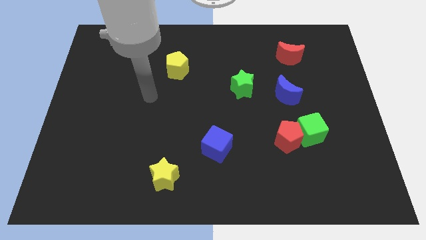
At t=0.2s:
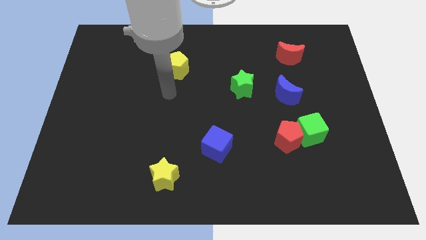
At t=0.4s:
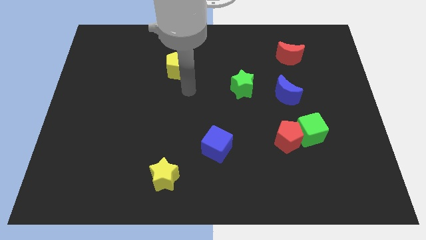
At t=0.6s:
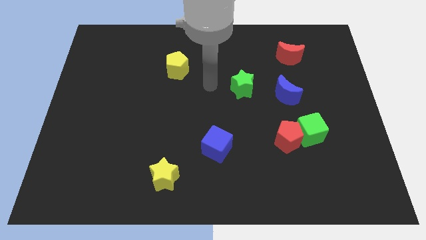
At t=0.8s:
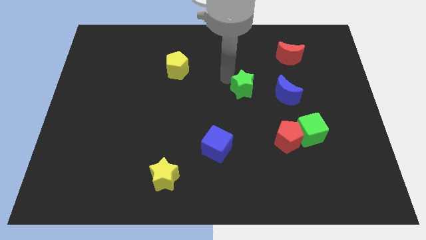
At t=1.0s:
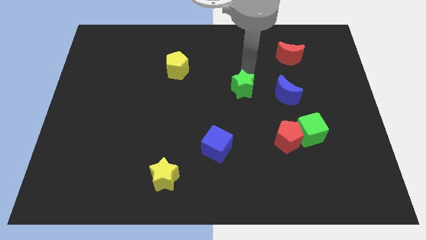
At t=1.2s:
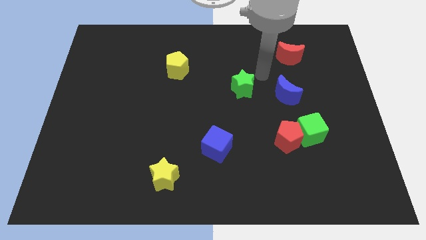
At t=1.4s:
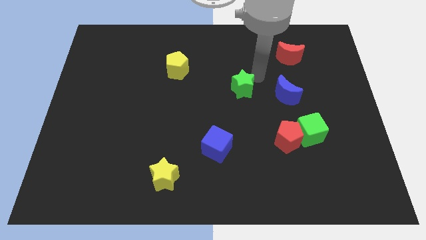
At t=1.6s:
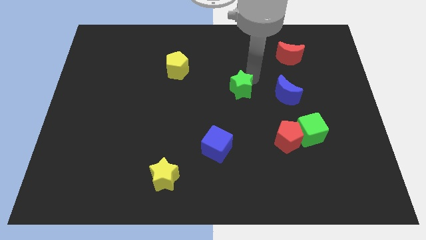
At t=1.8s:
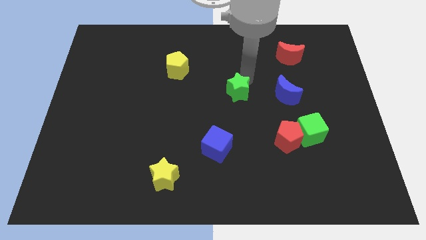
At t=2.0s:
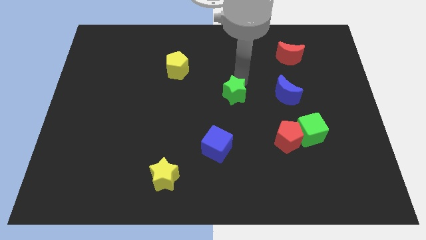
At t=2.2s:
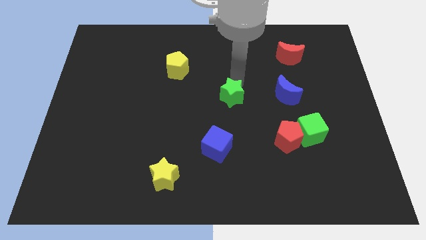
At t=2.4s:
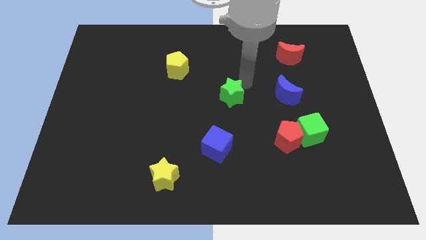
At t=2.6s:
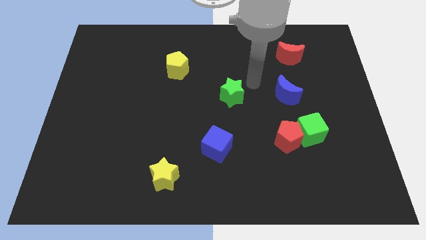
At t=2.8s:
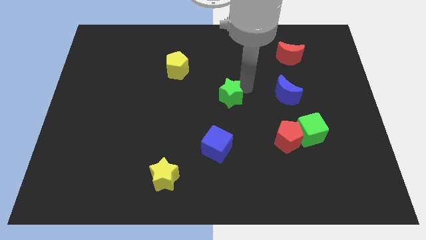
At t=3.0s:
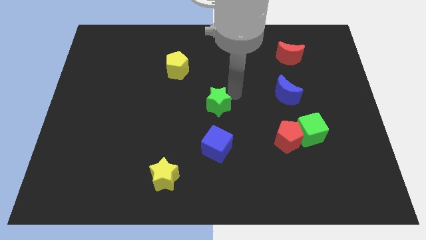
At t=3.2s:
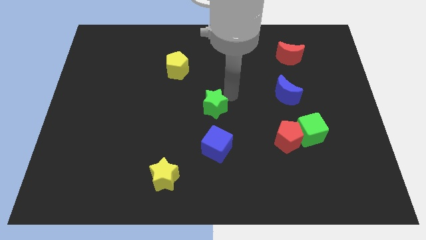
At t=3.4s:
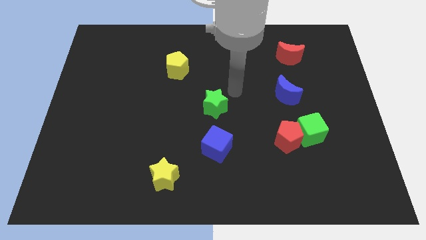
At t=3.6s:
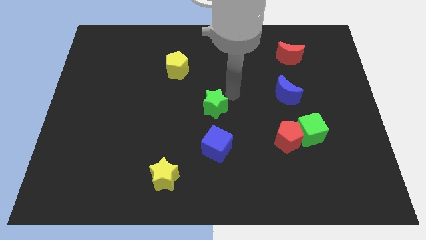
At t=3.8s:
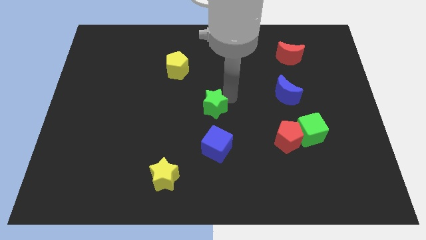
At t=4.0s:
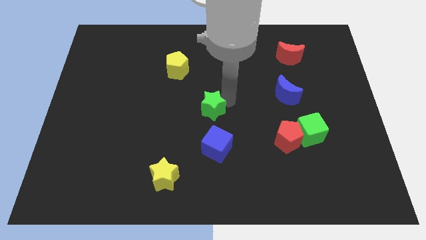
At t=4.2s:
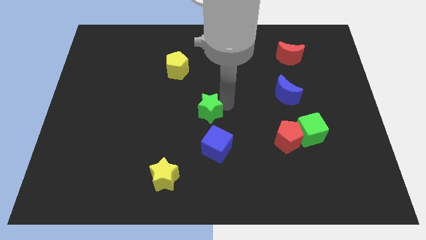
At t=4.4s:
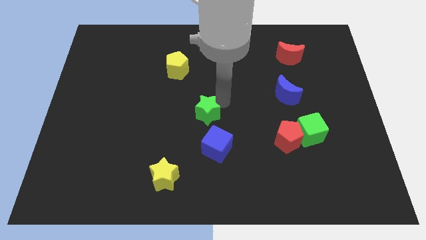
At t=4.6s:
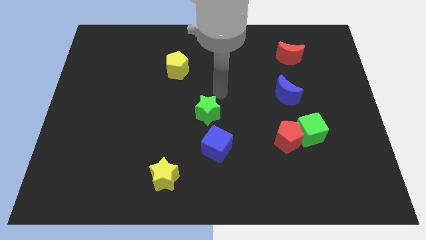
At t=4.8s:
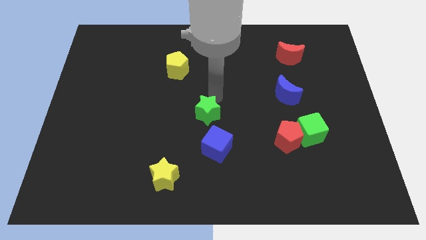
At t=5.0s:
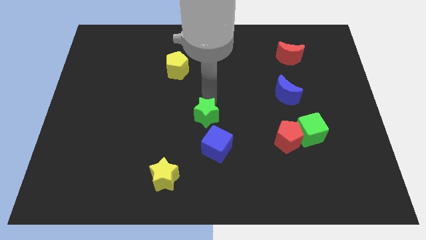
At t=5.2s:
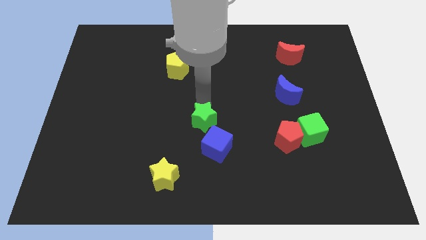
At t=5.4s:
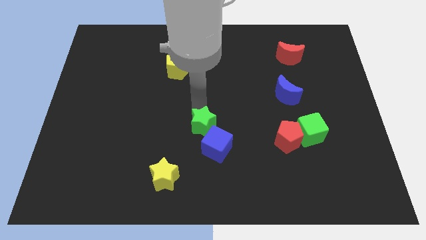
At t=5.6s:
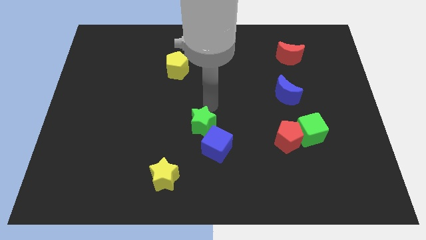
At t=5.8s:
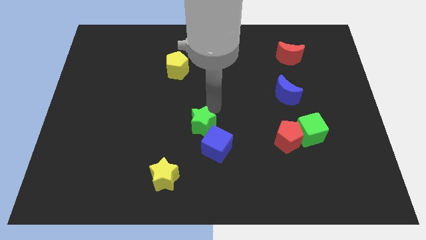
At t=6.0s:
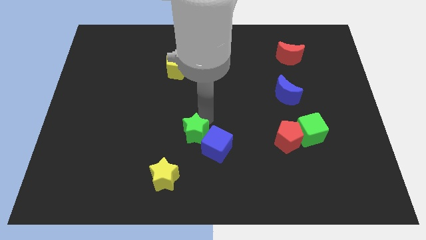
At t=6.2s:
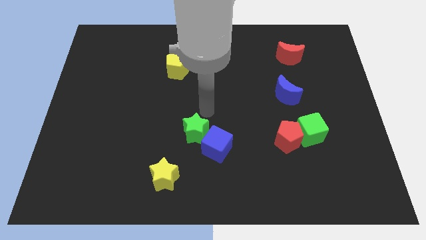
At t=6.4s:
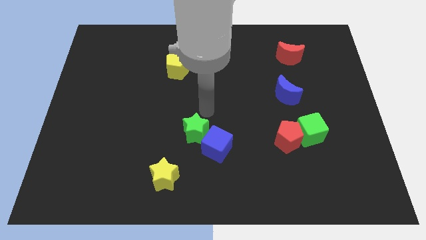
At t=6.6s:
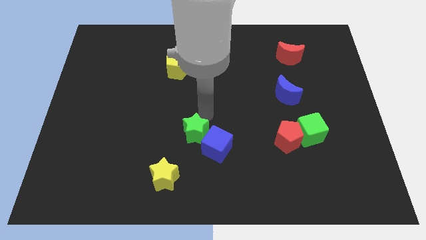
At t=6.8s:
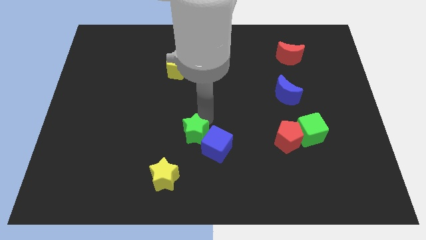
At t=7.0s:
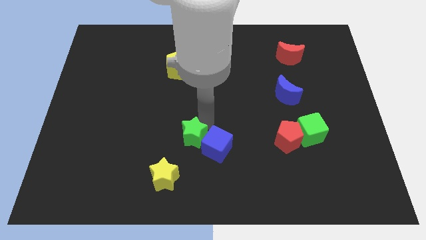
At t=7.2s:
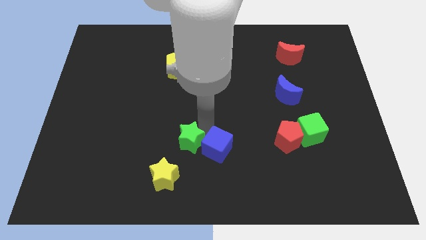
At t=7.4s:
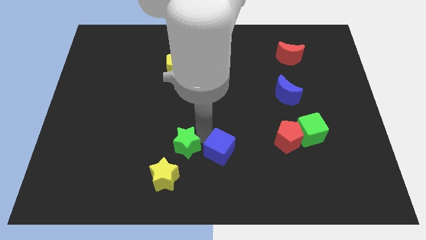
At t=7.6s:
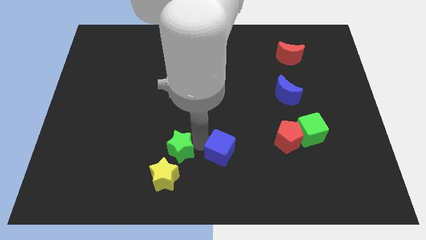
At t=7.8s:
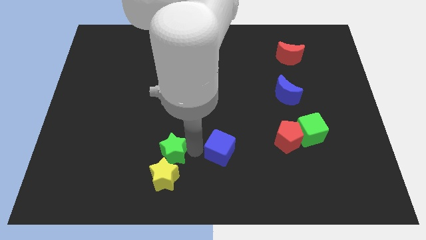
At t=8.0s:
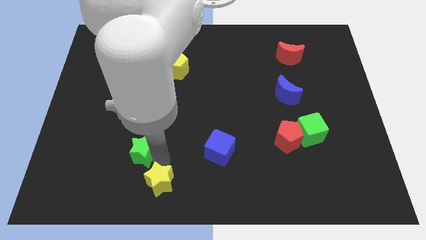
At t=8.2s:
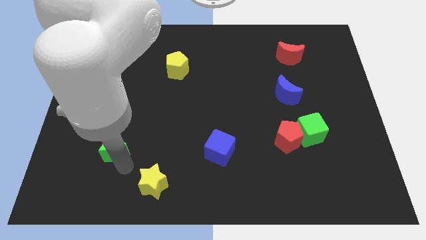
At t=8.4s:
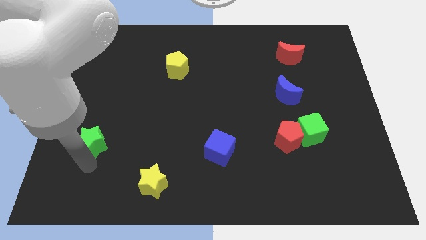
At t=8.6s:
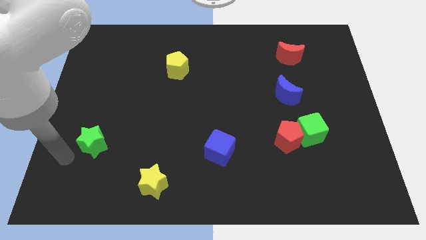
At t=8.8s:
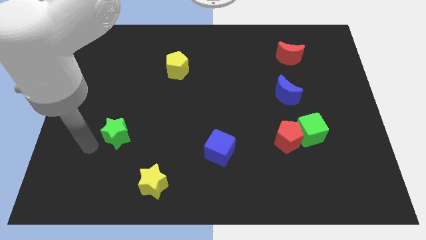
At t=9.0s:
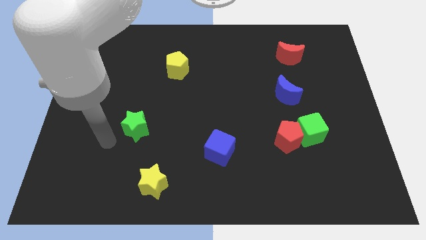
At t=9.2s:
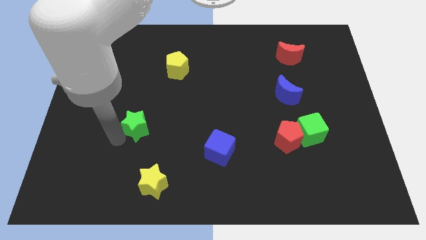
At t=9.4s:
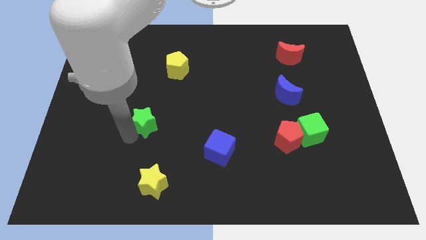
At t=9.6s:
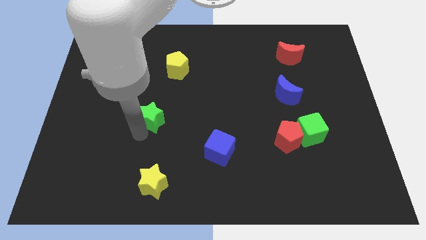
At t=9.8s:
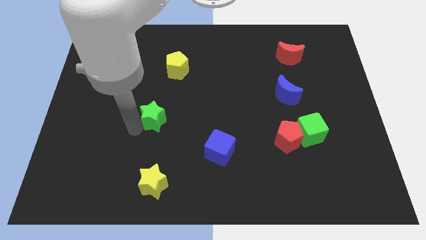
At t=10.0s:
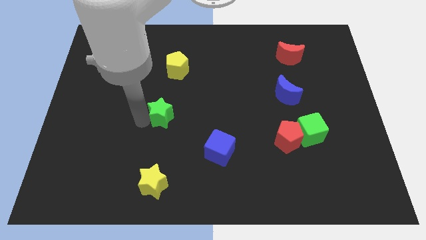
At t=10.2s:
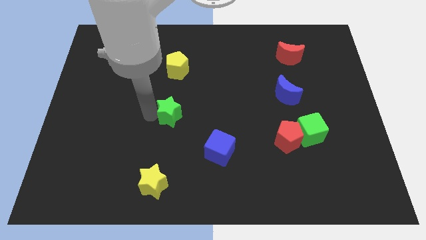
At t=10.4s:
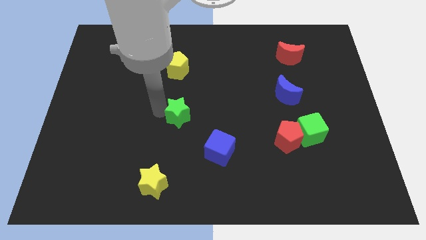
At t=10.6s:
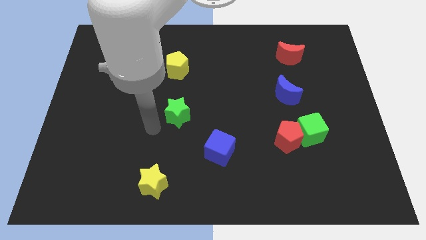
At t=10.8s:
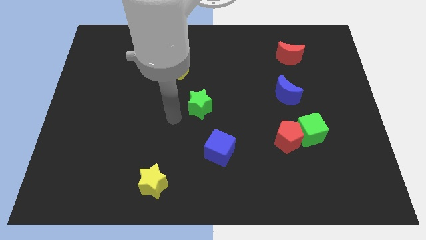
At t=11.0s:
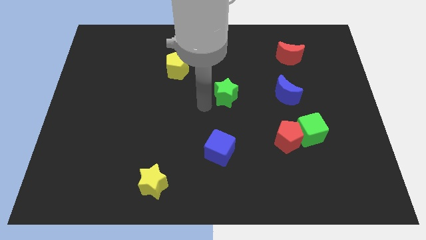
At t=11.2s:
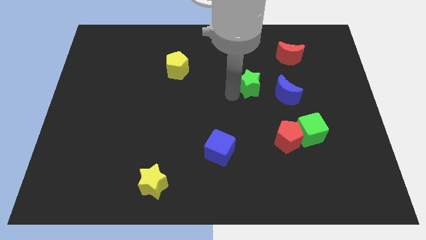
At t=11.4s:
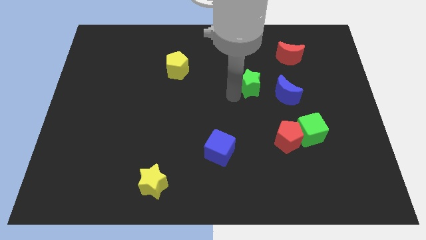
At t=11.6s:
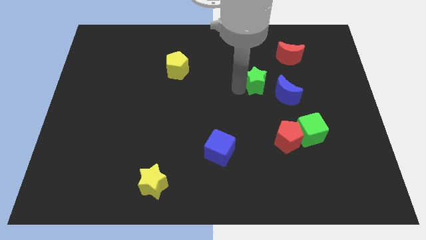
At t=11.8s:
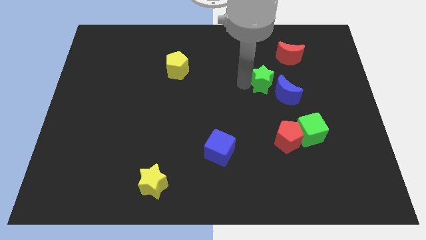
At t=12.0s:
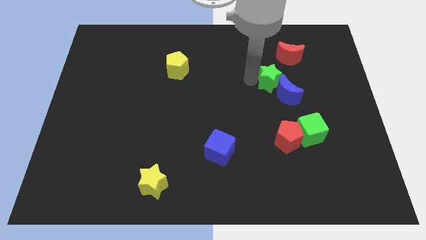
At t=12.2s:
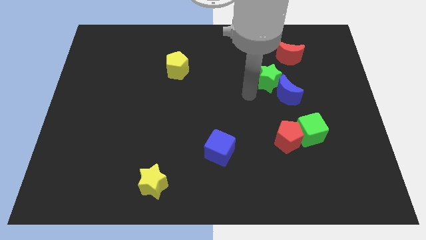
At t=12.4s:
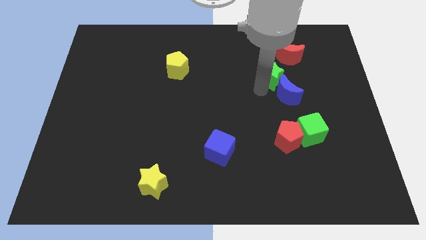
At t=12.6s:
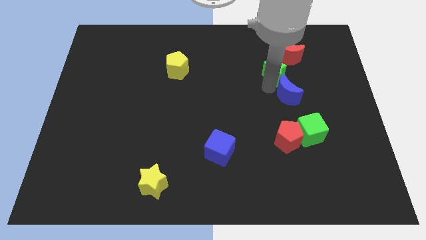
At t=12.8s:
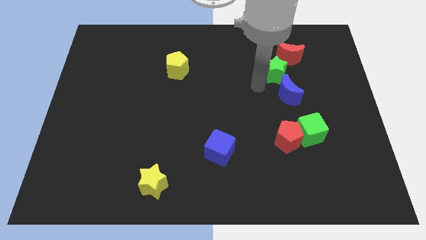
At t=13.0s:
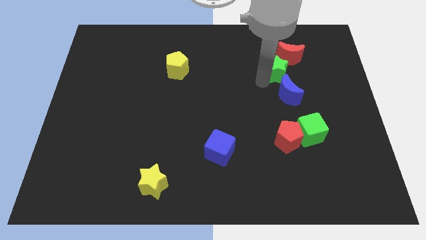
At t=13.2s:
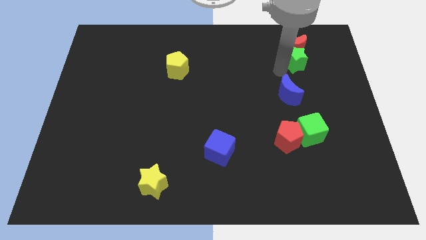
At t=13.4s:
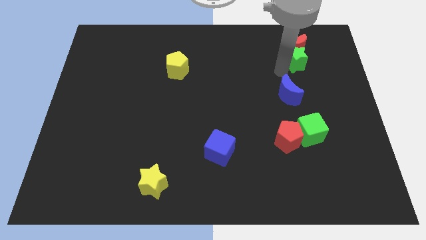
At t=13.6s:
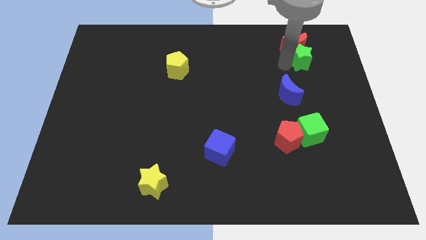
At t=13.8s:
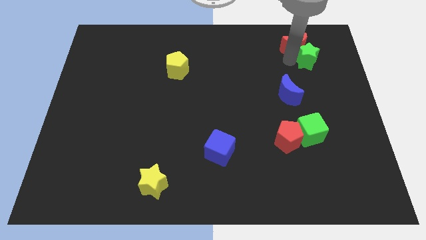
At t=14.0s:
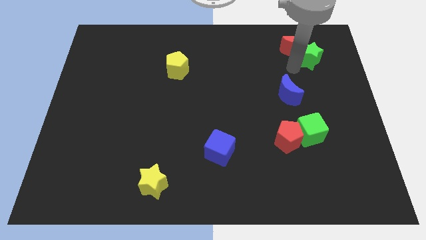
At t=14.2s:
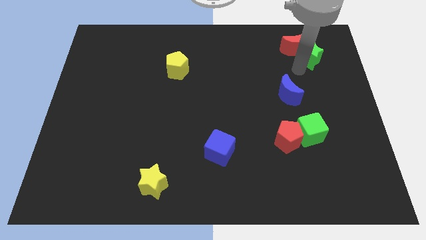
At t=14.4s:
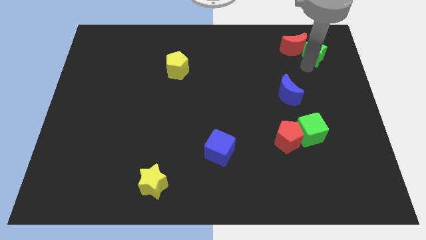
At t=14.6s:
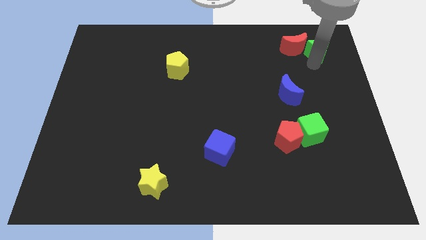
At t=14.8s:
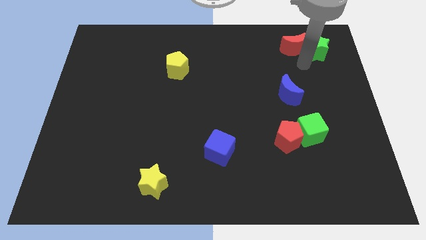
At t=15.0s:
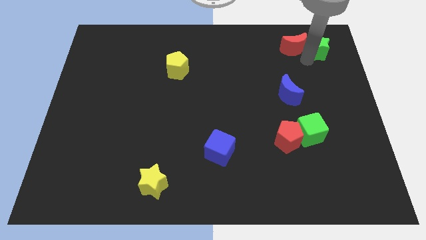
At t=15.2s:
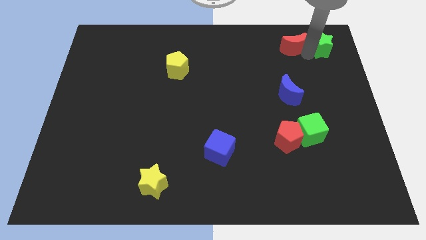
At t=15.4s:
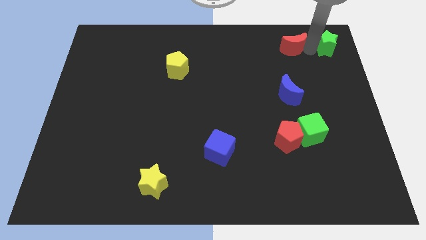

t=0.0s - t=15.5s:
push the green star to the upper right corner
